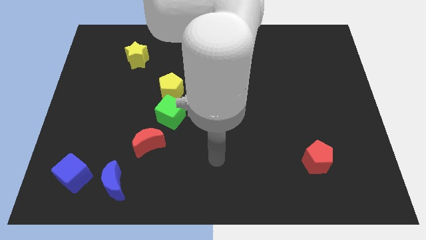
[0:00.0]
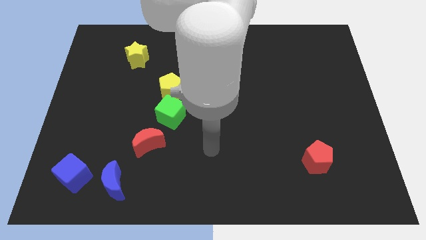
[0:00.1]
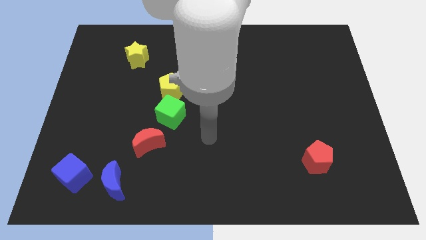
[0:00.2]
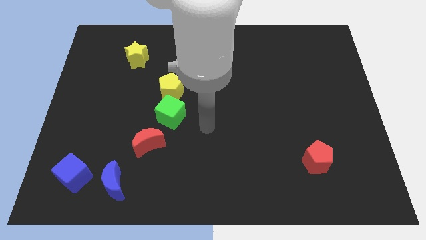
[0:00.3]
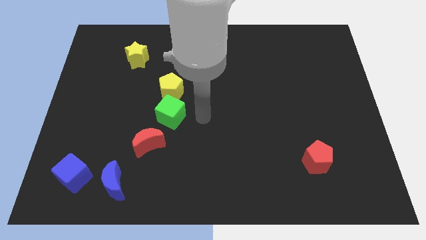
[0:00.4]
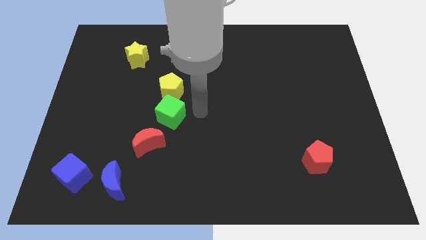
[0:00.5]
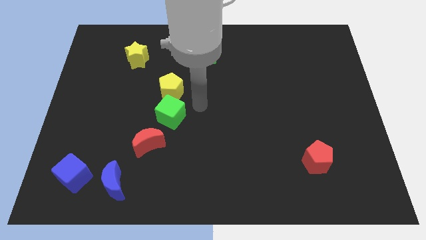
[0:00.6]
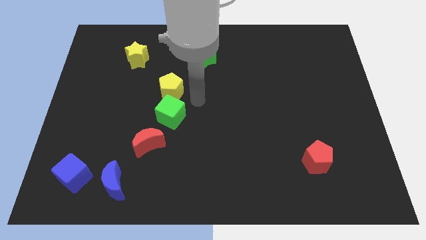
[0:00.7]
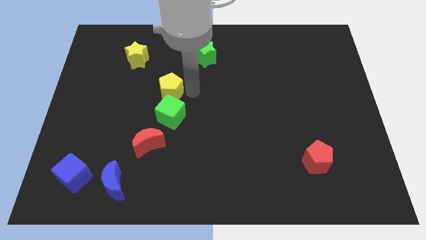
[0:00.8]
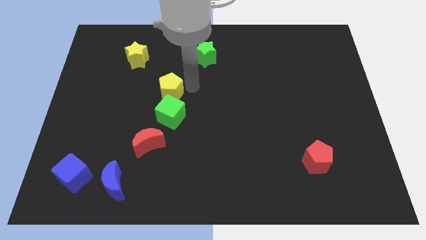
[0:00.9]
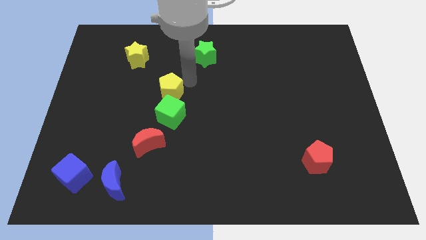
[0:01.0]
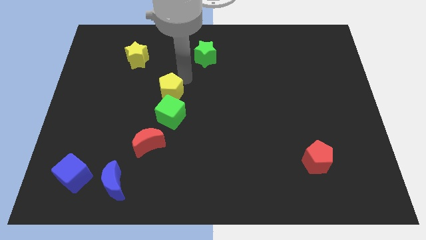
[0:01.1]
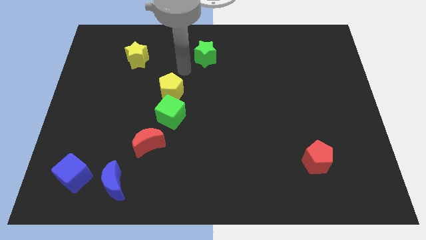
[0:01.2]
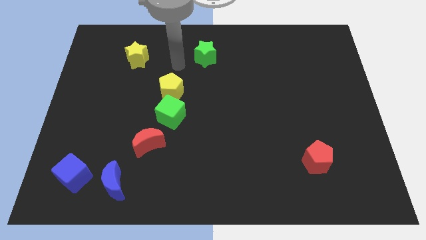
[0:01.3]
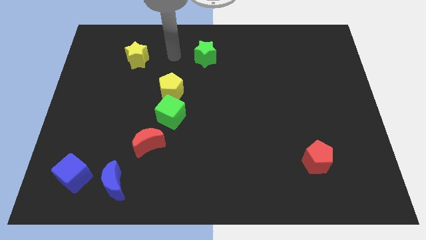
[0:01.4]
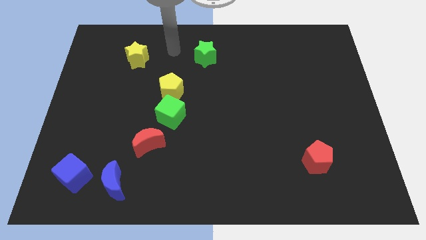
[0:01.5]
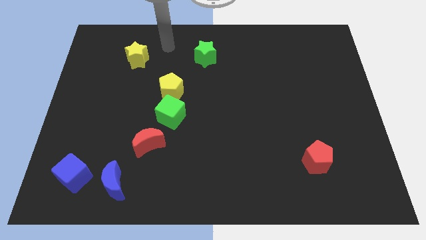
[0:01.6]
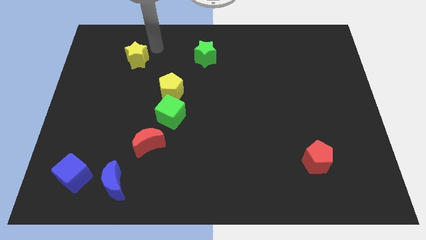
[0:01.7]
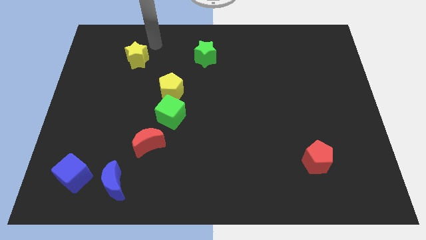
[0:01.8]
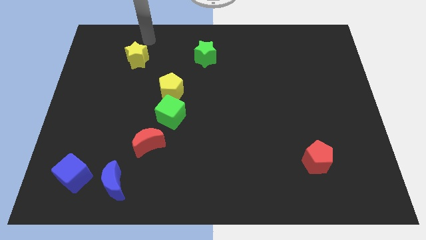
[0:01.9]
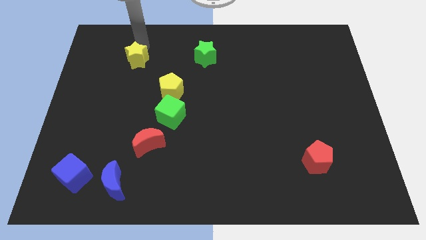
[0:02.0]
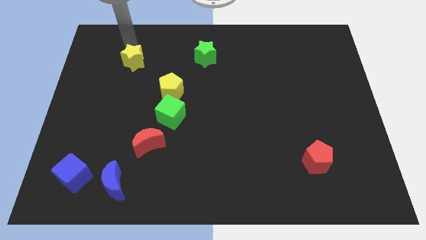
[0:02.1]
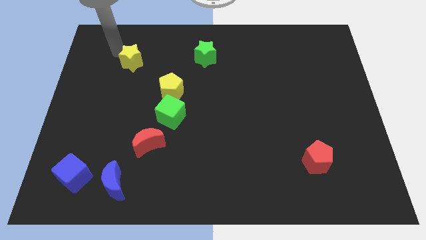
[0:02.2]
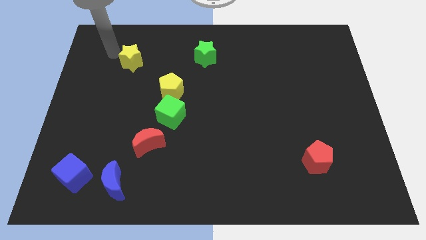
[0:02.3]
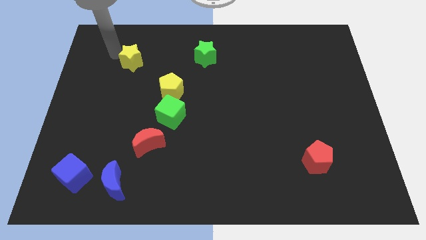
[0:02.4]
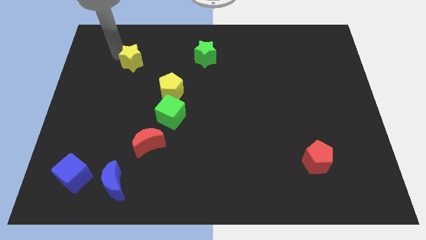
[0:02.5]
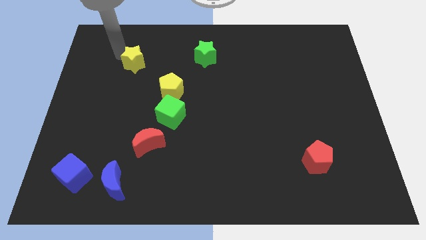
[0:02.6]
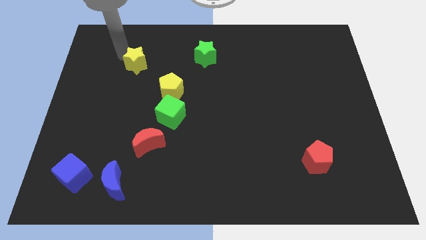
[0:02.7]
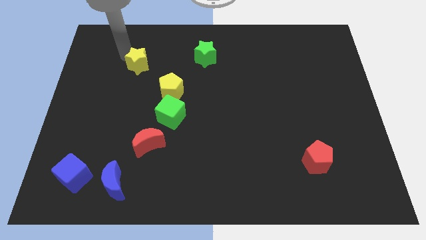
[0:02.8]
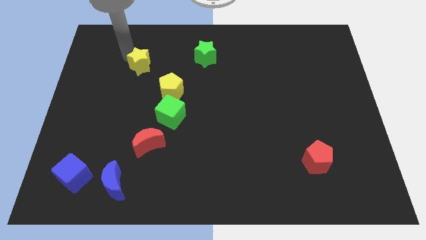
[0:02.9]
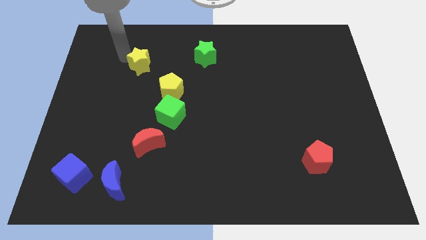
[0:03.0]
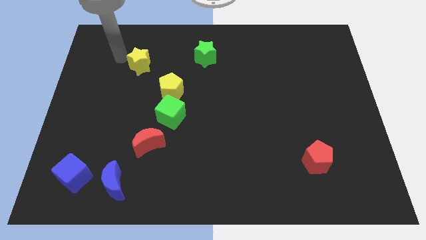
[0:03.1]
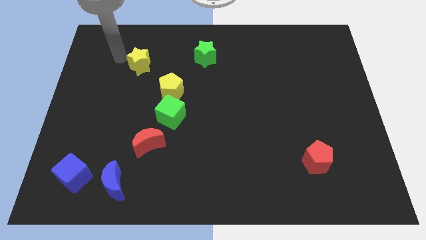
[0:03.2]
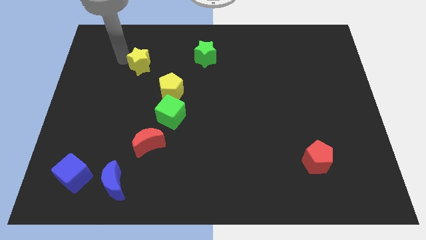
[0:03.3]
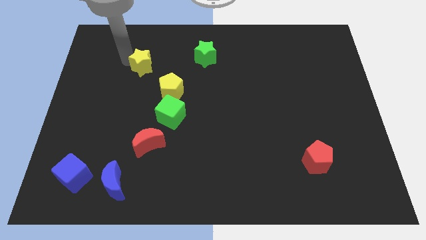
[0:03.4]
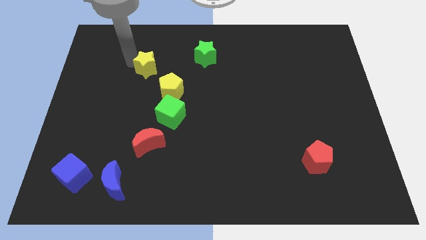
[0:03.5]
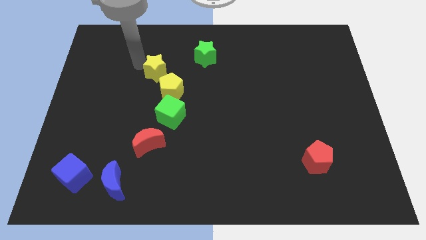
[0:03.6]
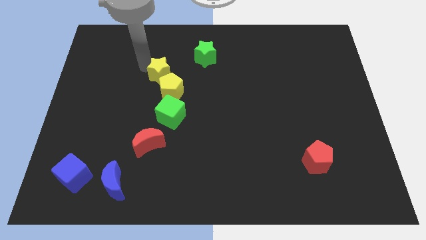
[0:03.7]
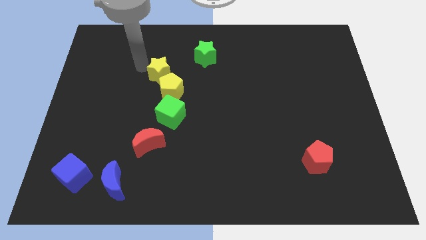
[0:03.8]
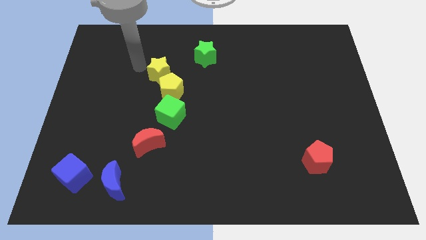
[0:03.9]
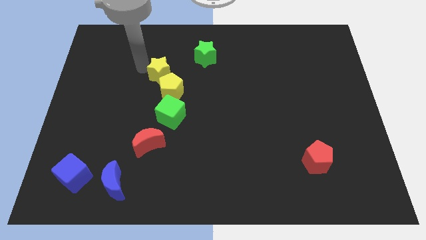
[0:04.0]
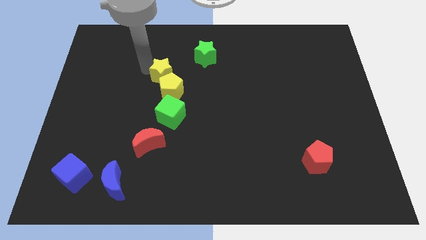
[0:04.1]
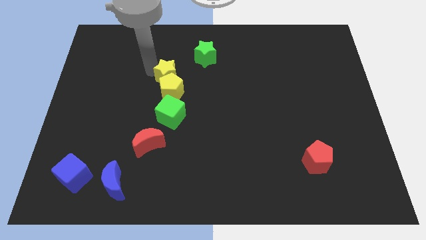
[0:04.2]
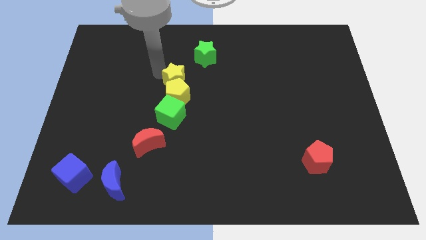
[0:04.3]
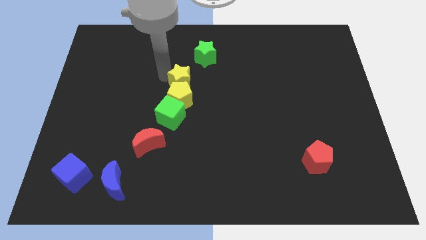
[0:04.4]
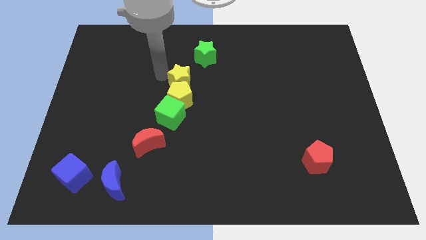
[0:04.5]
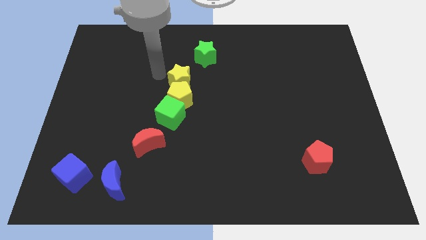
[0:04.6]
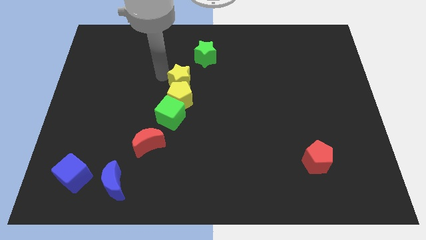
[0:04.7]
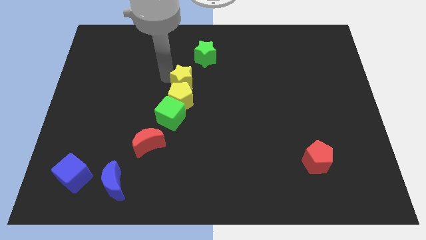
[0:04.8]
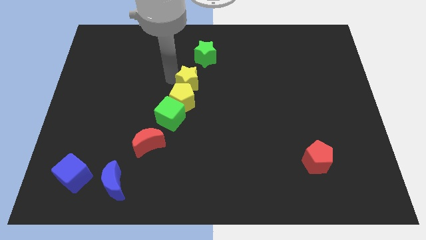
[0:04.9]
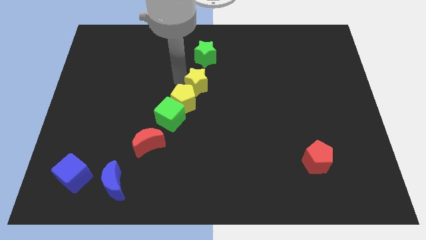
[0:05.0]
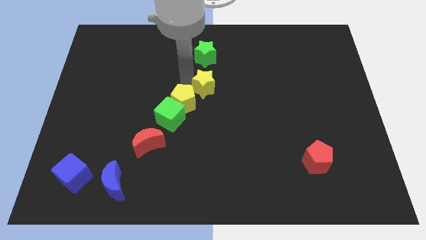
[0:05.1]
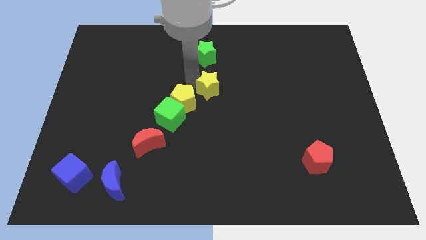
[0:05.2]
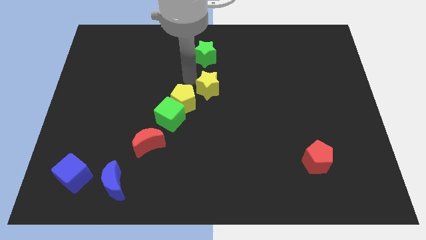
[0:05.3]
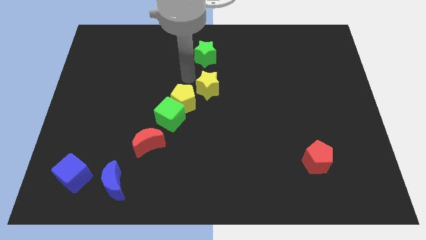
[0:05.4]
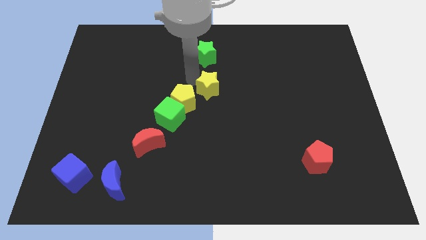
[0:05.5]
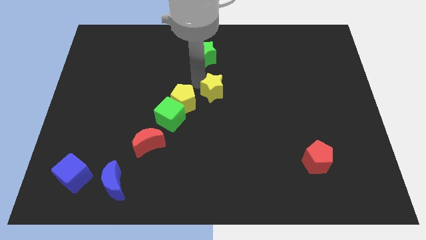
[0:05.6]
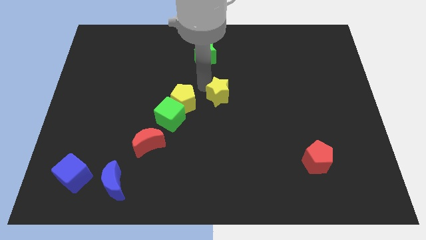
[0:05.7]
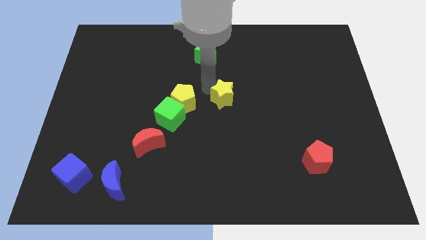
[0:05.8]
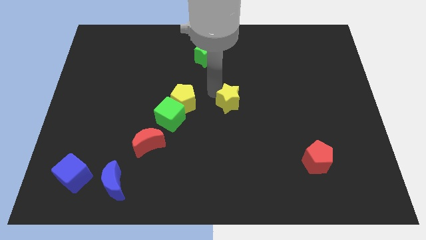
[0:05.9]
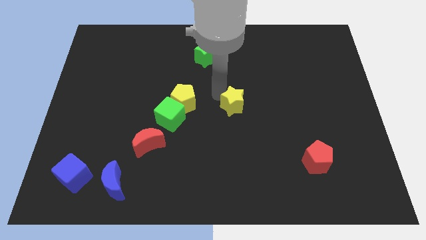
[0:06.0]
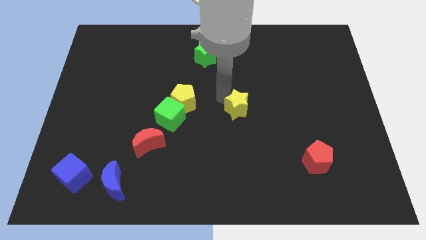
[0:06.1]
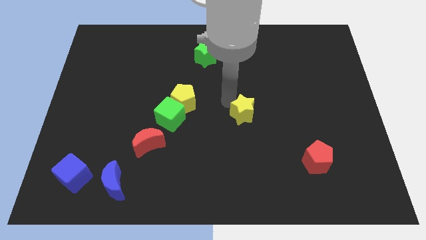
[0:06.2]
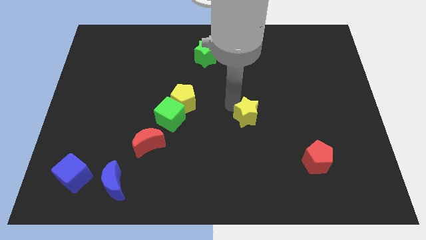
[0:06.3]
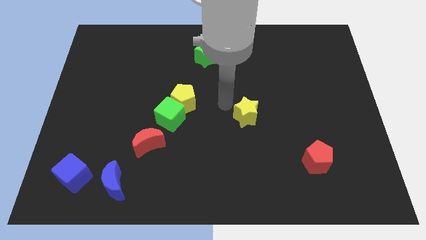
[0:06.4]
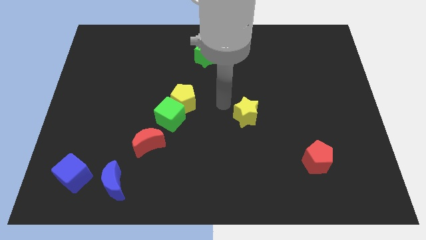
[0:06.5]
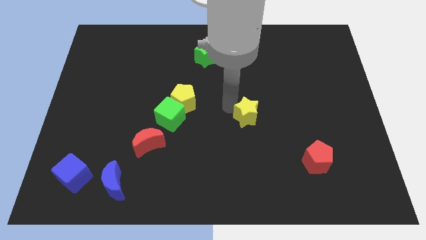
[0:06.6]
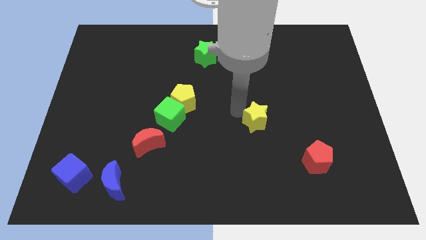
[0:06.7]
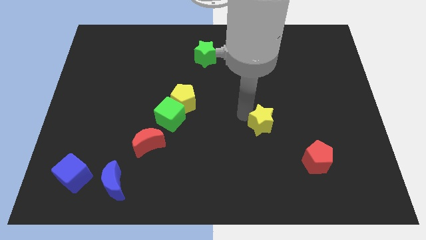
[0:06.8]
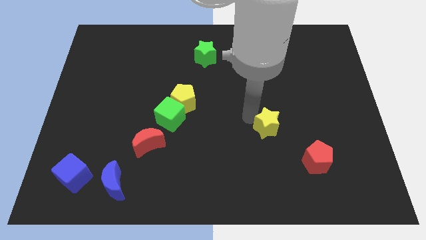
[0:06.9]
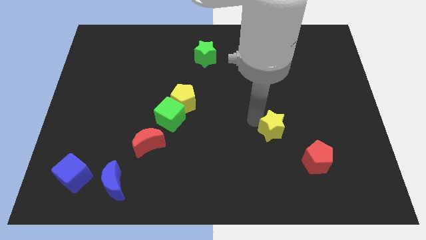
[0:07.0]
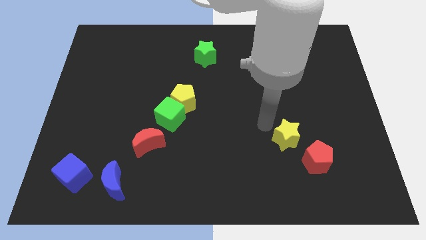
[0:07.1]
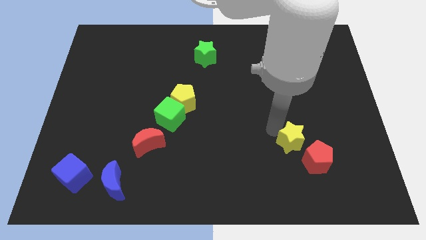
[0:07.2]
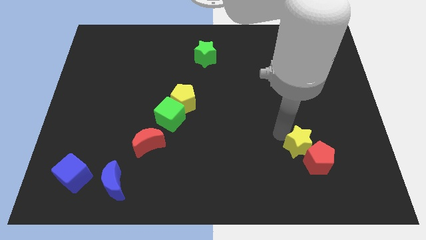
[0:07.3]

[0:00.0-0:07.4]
move the yellow star close to the red pentagon
